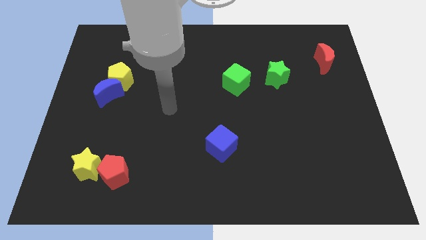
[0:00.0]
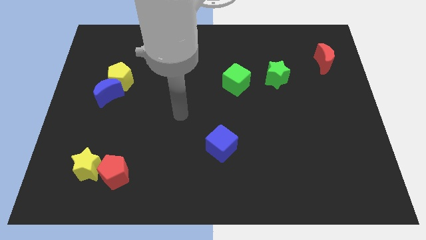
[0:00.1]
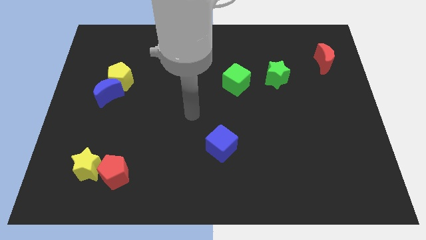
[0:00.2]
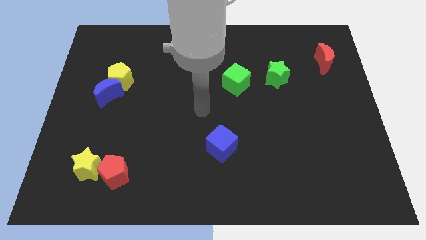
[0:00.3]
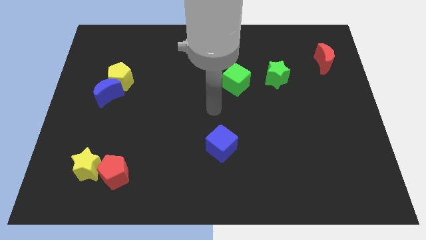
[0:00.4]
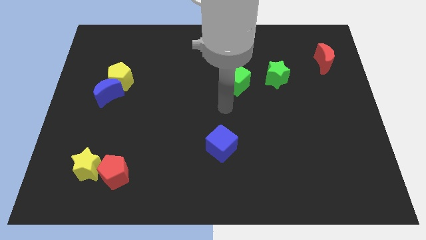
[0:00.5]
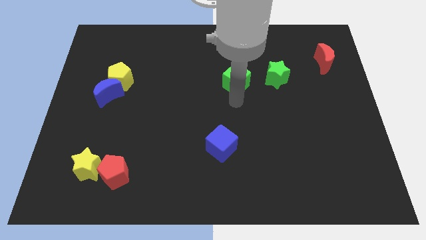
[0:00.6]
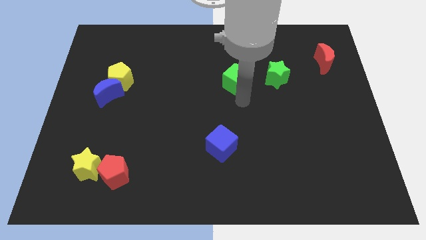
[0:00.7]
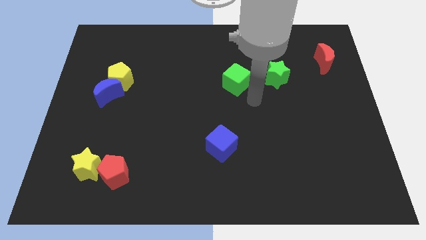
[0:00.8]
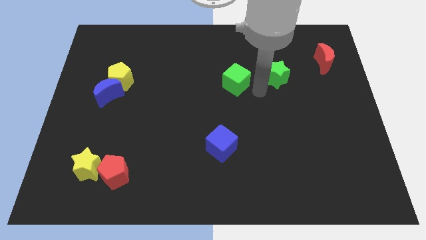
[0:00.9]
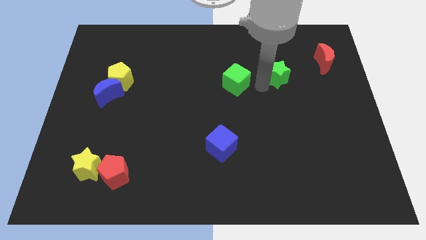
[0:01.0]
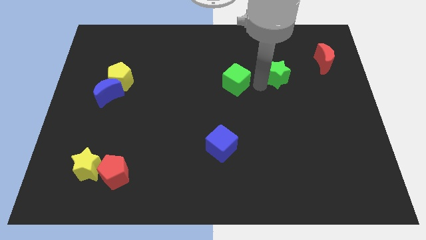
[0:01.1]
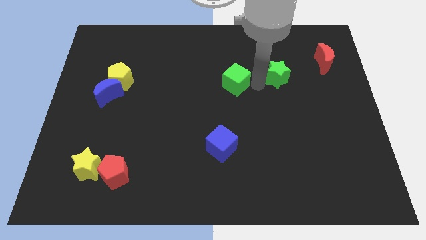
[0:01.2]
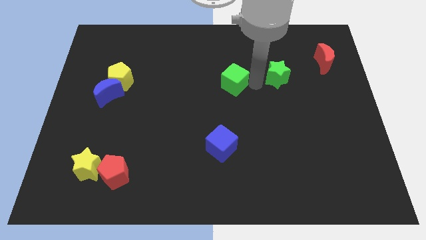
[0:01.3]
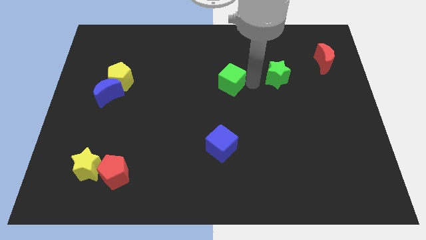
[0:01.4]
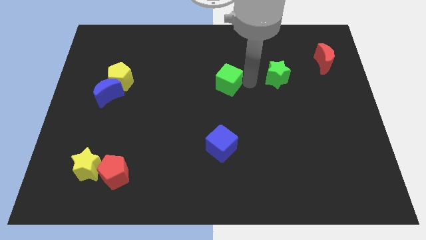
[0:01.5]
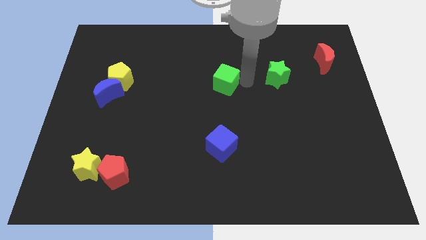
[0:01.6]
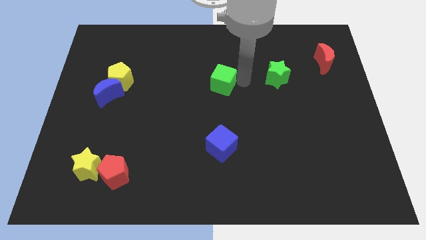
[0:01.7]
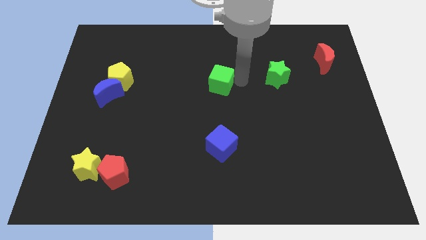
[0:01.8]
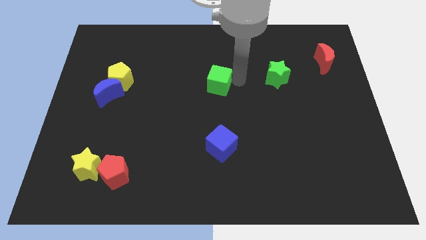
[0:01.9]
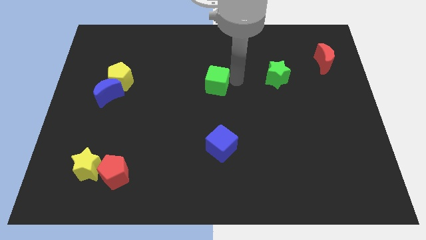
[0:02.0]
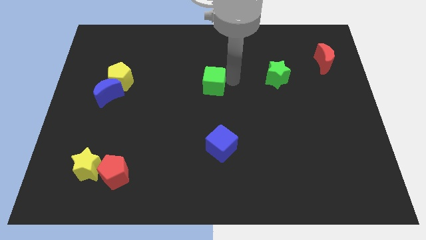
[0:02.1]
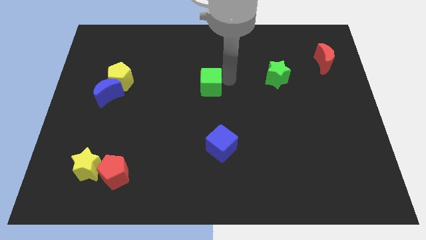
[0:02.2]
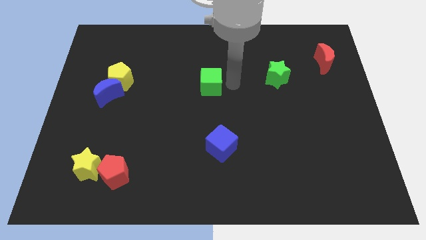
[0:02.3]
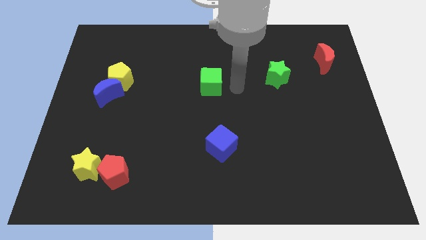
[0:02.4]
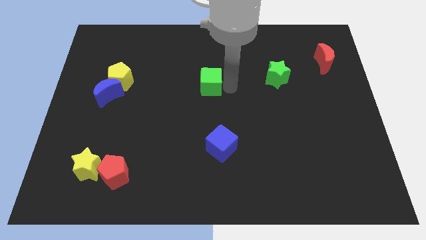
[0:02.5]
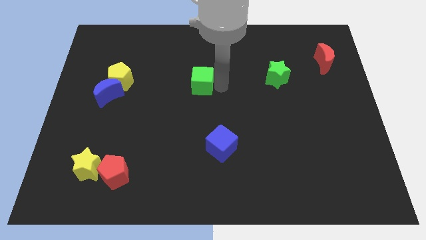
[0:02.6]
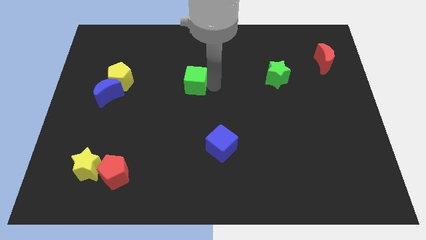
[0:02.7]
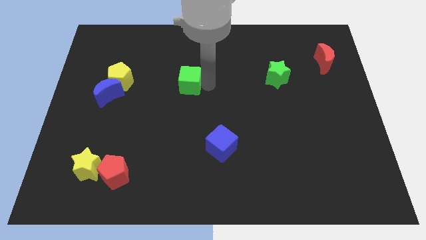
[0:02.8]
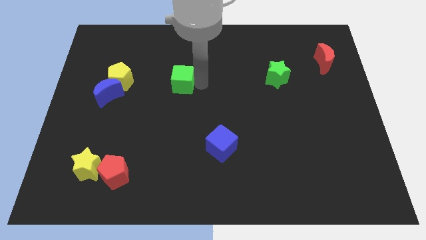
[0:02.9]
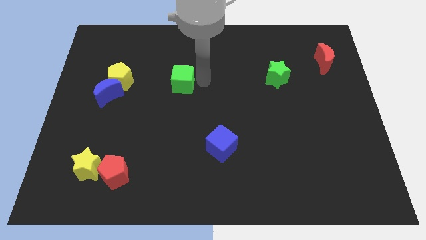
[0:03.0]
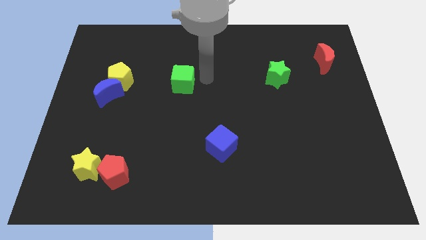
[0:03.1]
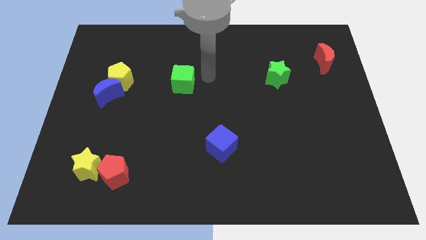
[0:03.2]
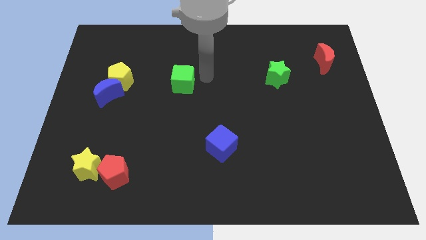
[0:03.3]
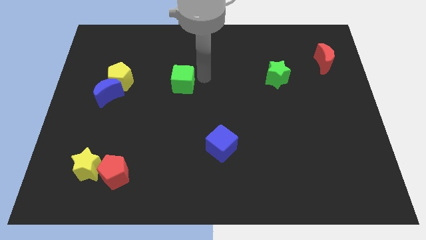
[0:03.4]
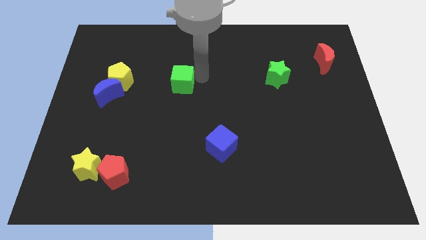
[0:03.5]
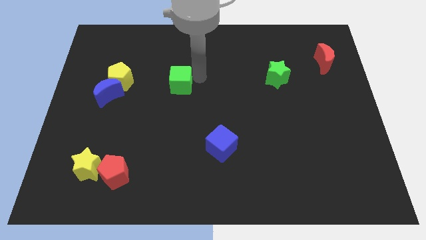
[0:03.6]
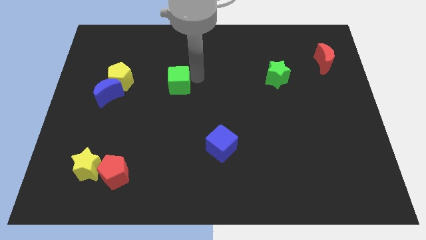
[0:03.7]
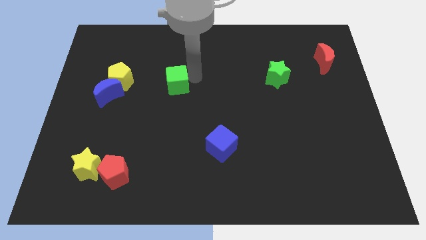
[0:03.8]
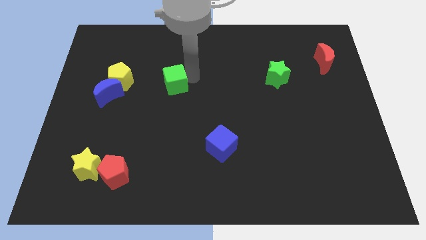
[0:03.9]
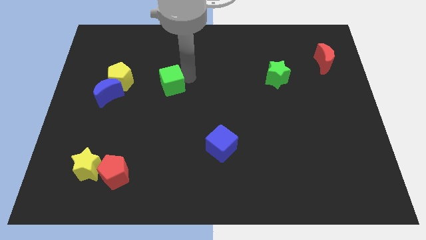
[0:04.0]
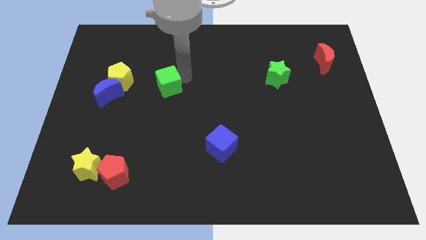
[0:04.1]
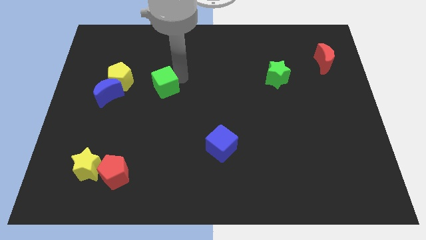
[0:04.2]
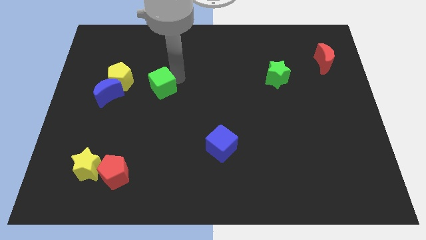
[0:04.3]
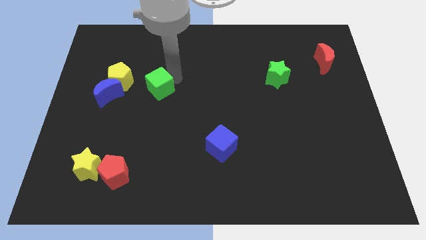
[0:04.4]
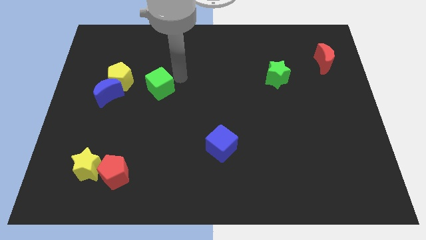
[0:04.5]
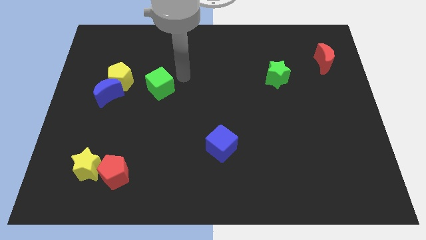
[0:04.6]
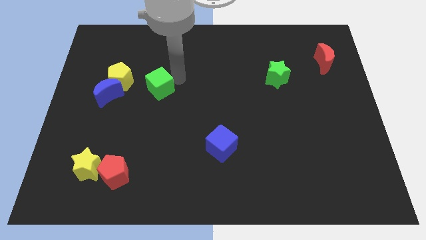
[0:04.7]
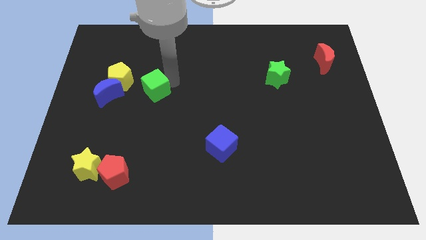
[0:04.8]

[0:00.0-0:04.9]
put the green cube to the bottom right of the yellow pentagon

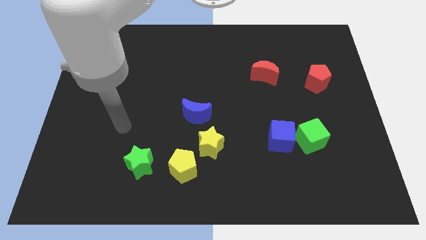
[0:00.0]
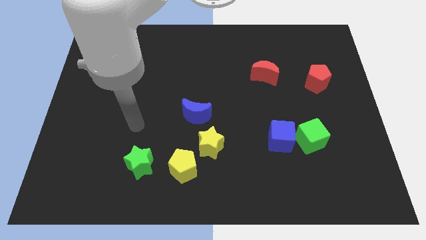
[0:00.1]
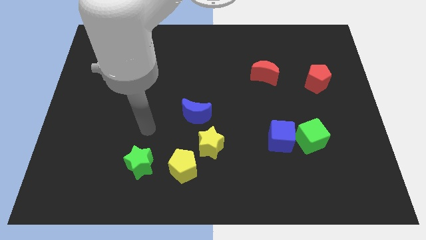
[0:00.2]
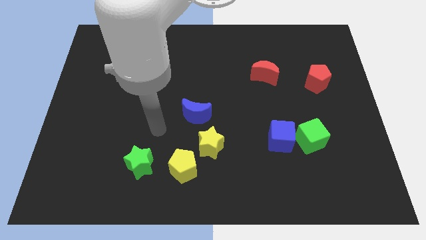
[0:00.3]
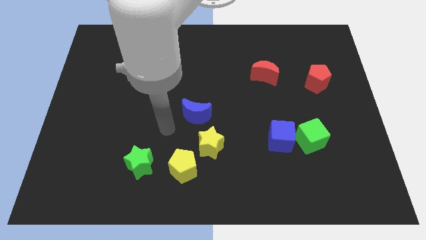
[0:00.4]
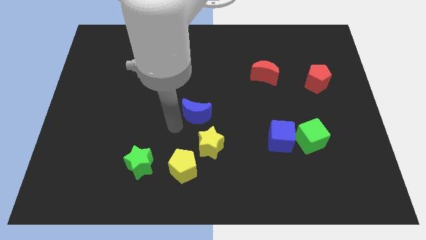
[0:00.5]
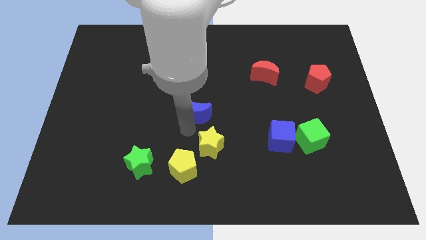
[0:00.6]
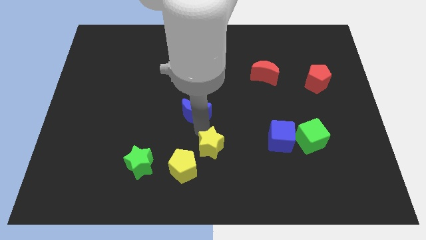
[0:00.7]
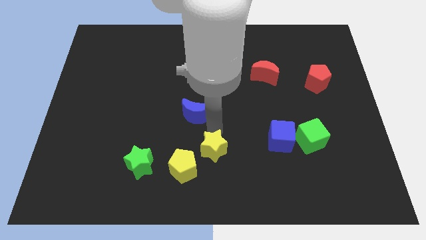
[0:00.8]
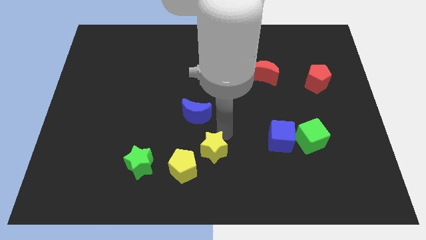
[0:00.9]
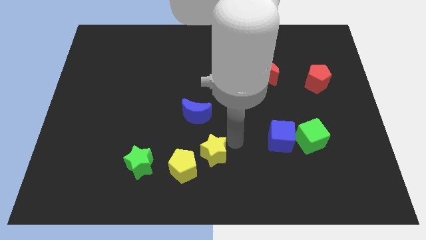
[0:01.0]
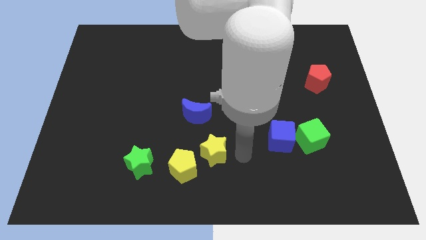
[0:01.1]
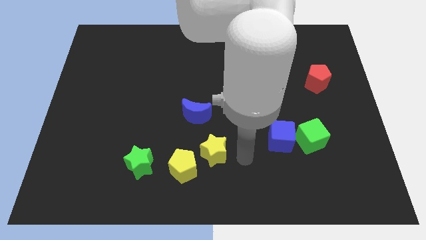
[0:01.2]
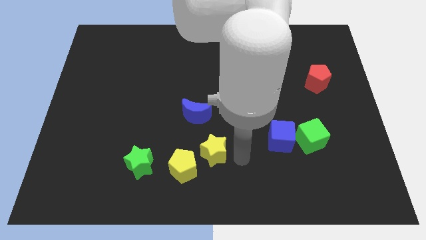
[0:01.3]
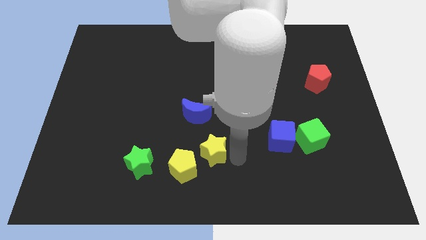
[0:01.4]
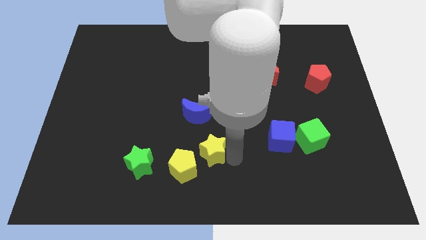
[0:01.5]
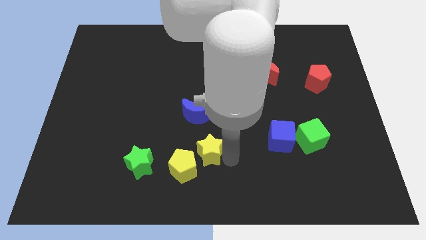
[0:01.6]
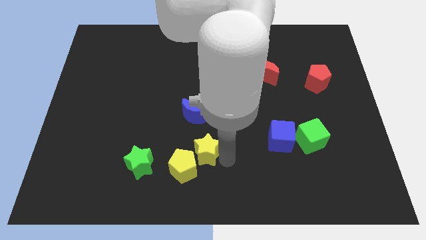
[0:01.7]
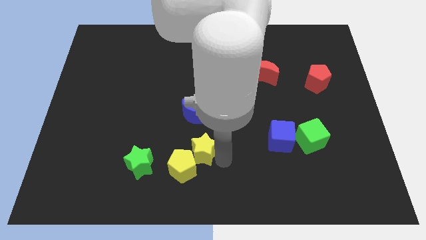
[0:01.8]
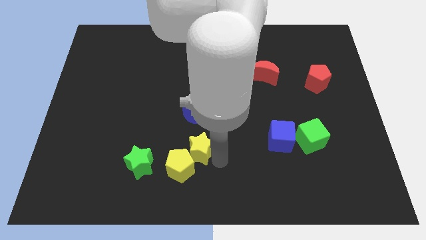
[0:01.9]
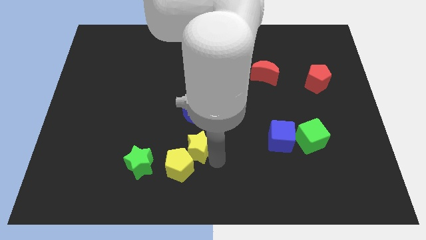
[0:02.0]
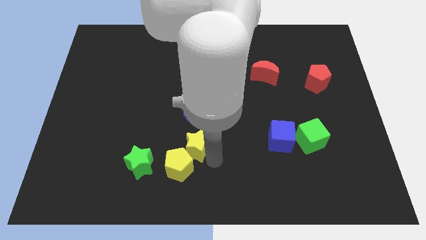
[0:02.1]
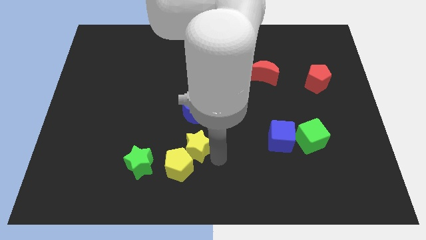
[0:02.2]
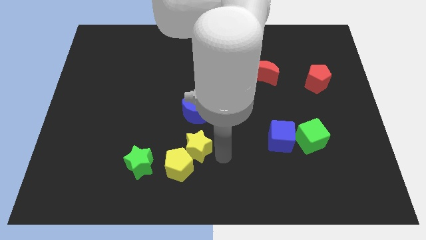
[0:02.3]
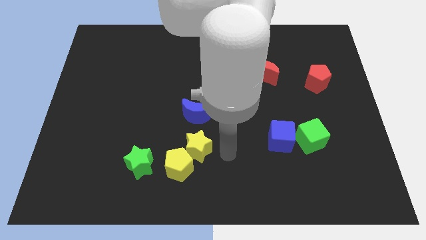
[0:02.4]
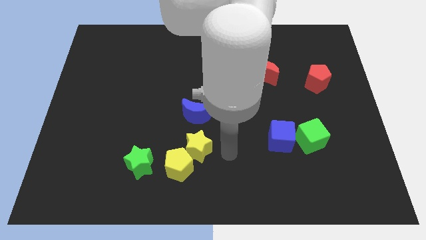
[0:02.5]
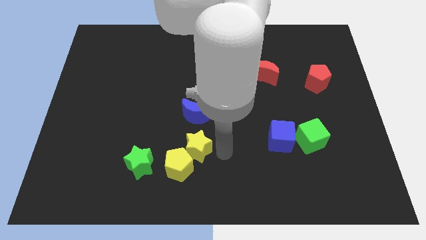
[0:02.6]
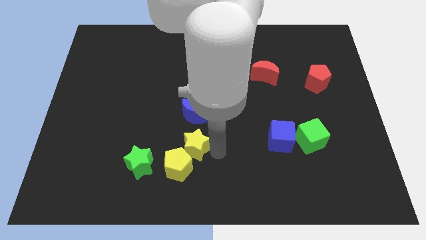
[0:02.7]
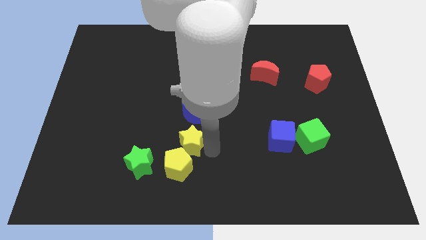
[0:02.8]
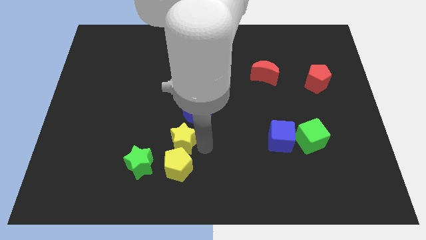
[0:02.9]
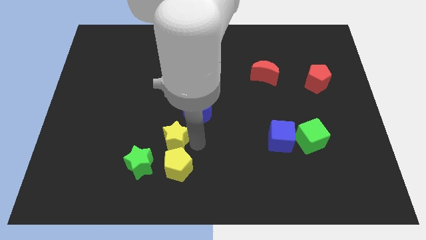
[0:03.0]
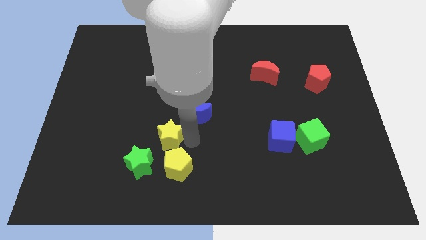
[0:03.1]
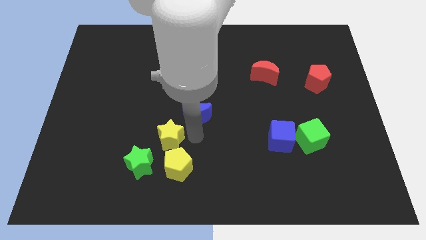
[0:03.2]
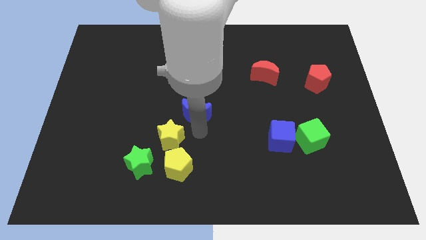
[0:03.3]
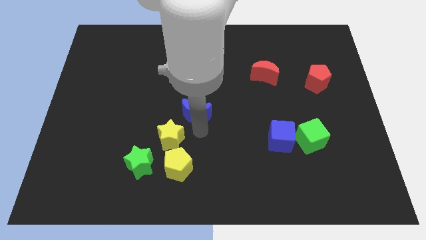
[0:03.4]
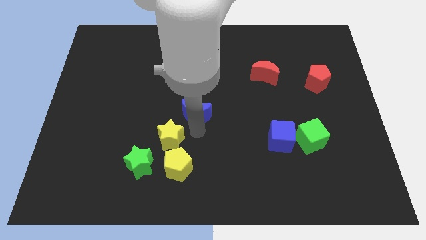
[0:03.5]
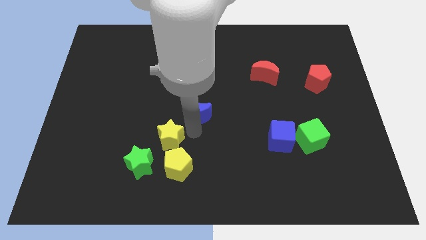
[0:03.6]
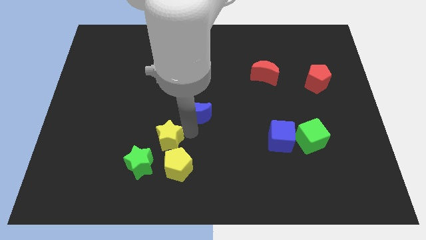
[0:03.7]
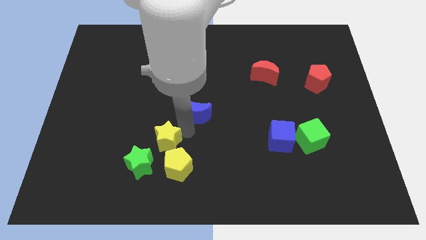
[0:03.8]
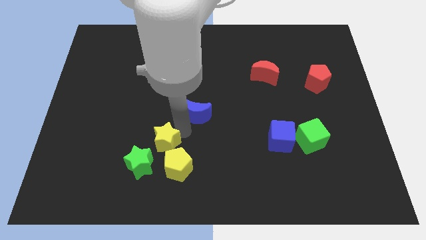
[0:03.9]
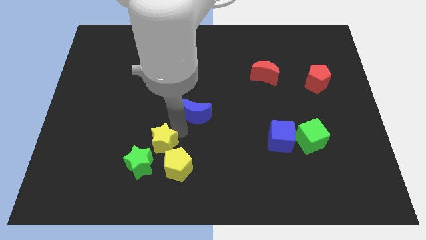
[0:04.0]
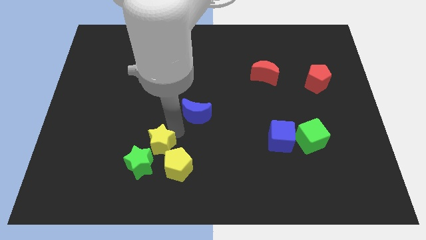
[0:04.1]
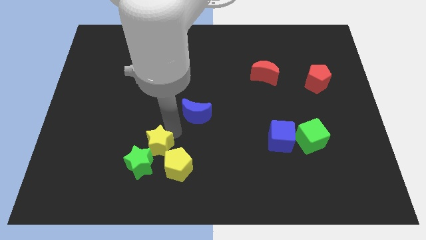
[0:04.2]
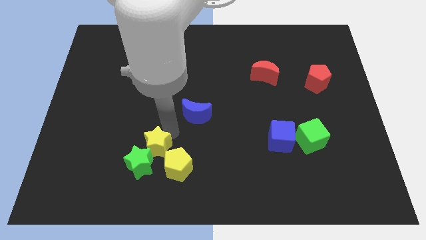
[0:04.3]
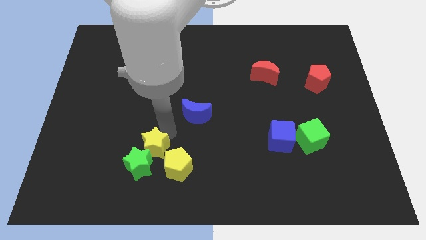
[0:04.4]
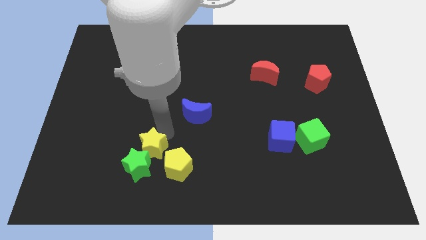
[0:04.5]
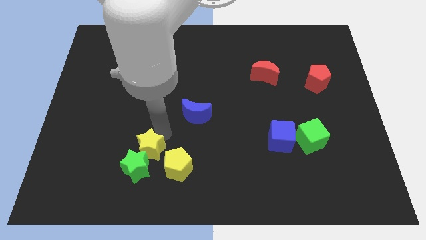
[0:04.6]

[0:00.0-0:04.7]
put the yellow star to the left side of the yellow pentagon
